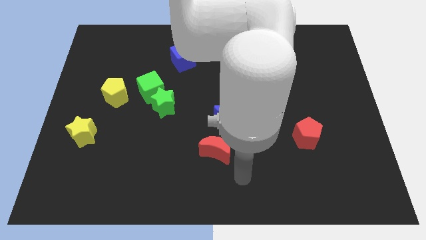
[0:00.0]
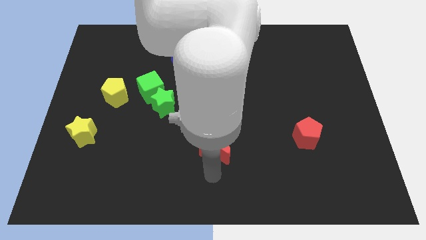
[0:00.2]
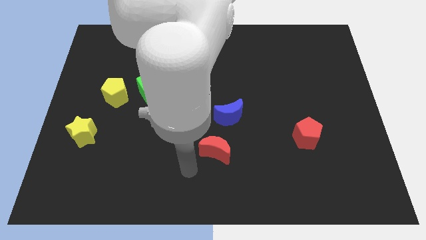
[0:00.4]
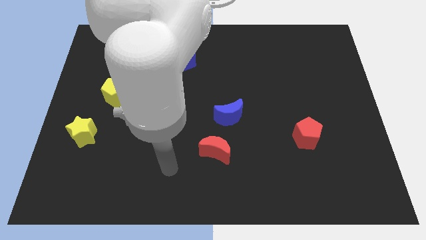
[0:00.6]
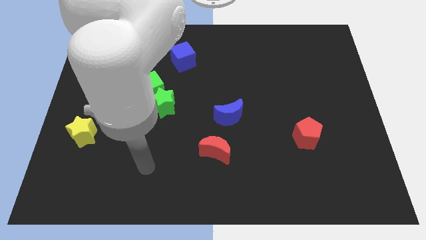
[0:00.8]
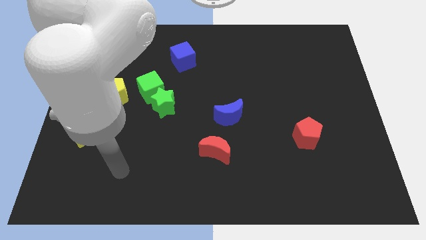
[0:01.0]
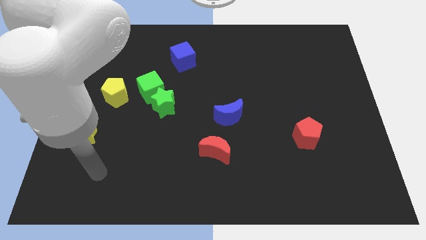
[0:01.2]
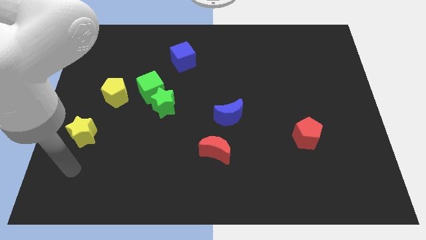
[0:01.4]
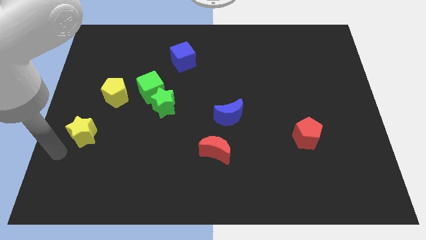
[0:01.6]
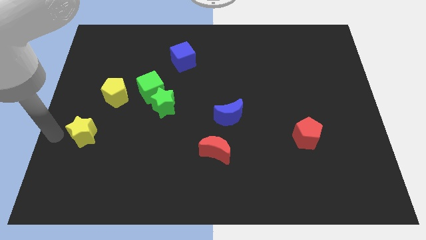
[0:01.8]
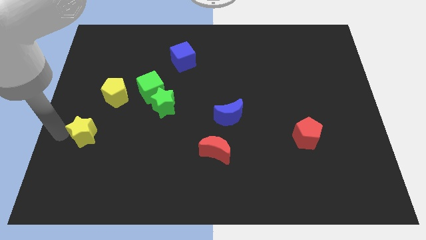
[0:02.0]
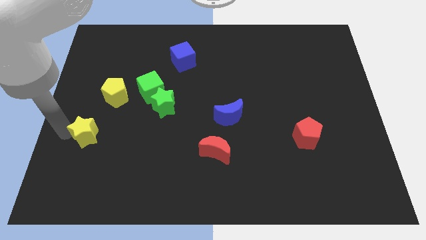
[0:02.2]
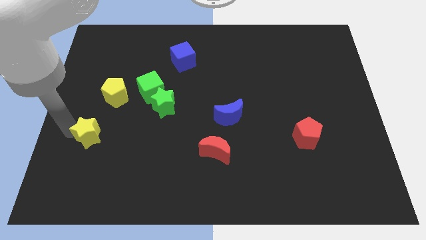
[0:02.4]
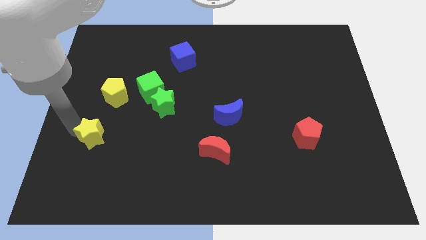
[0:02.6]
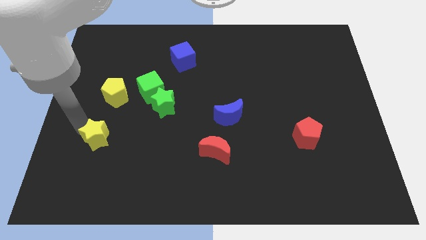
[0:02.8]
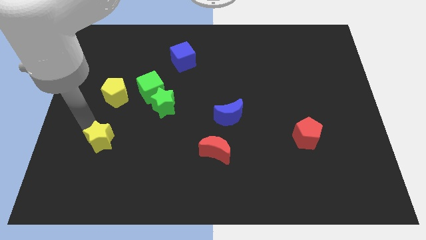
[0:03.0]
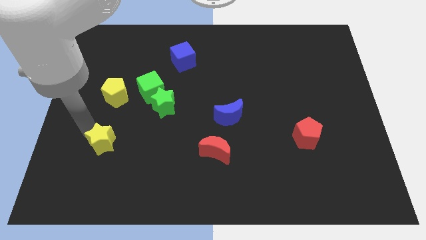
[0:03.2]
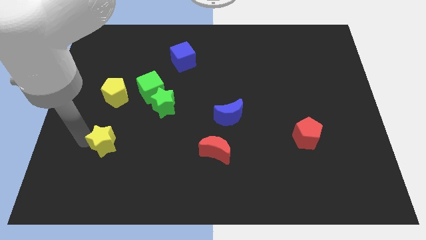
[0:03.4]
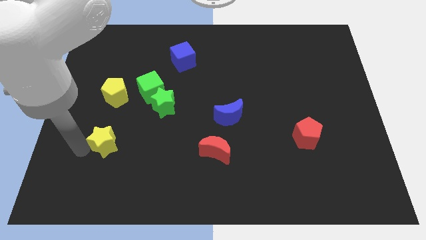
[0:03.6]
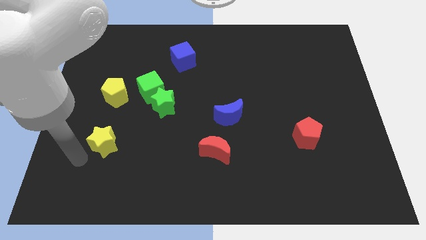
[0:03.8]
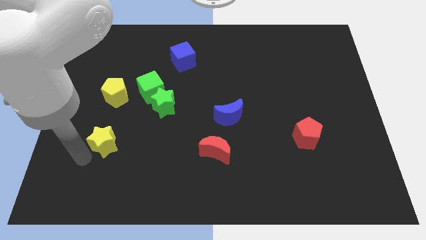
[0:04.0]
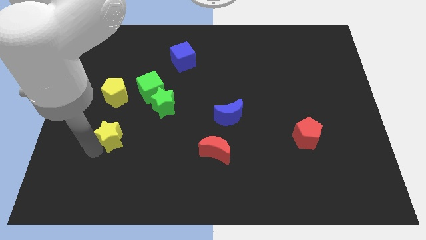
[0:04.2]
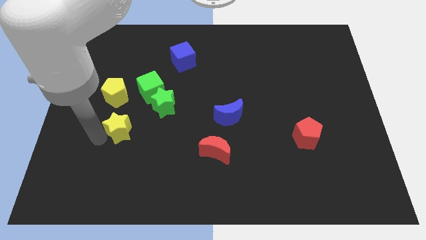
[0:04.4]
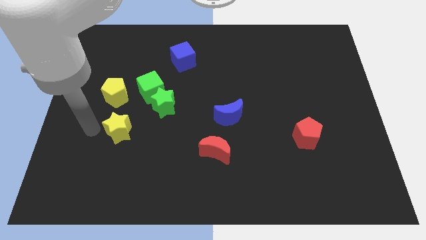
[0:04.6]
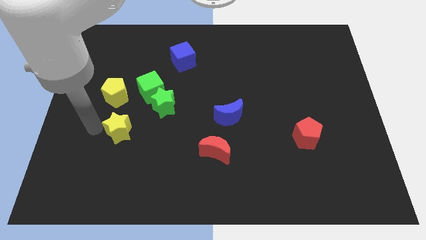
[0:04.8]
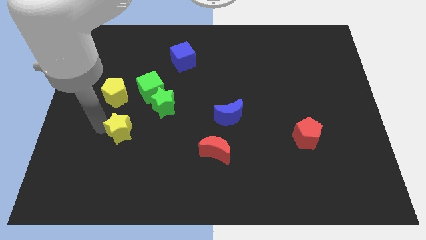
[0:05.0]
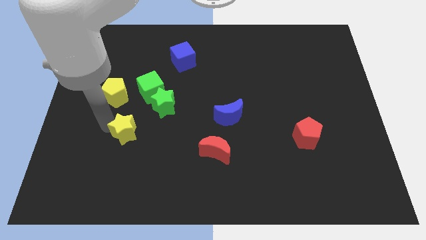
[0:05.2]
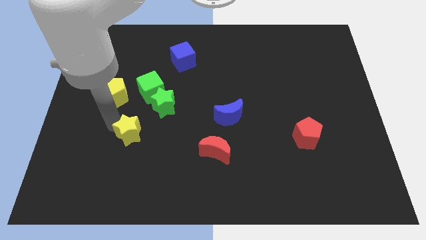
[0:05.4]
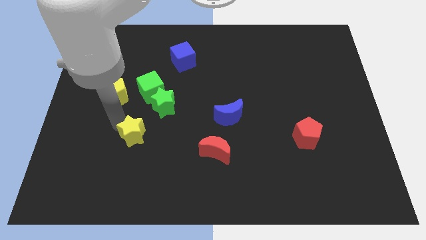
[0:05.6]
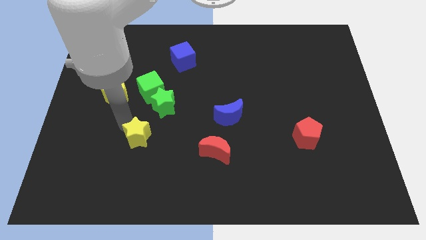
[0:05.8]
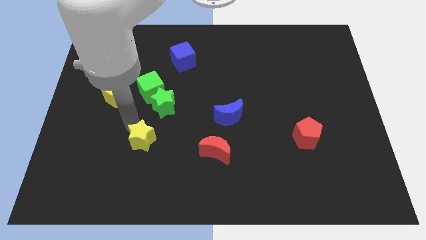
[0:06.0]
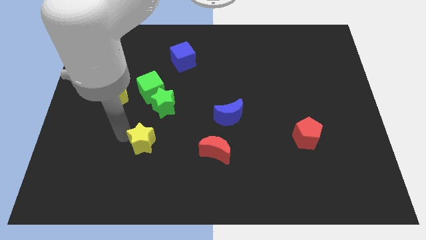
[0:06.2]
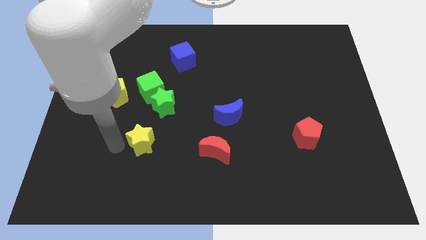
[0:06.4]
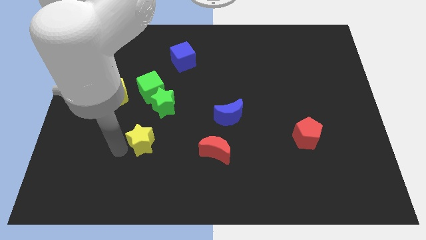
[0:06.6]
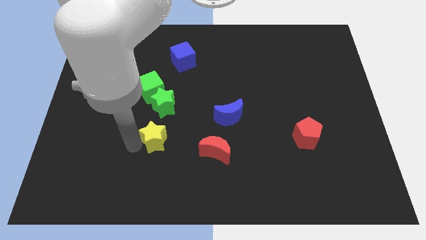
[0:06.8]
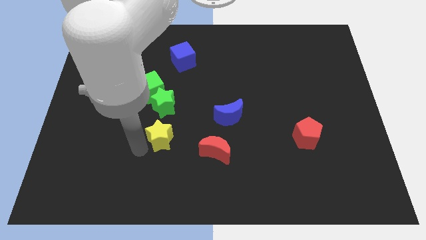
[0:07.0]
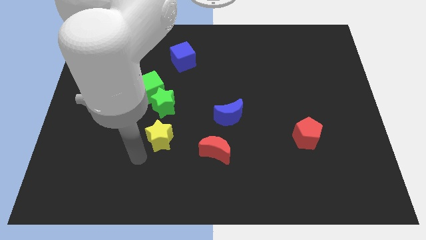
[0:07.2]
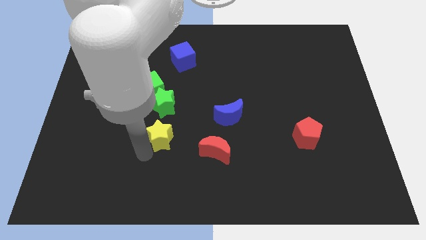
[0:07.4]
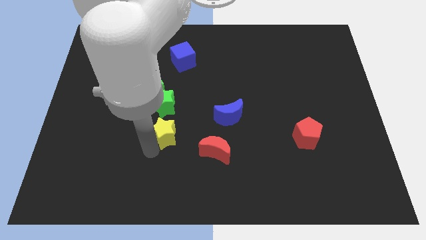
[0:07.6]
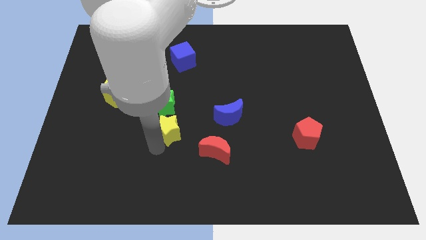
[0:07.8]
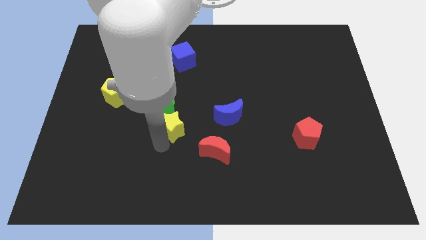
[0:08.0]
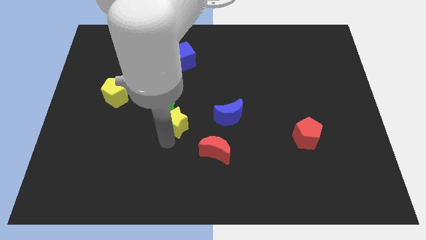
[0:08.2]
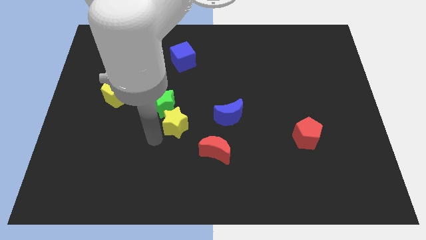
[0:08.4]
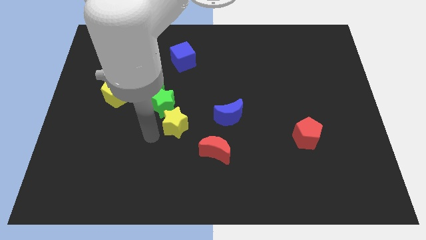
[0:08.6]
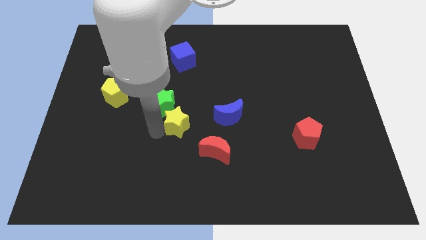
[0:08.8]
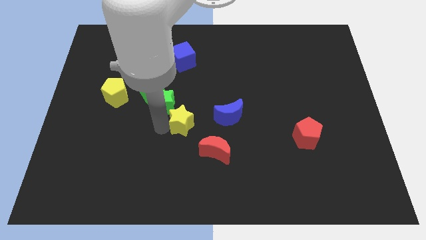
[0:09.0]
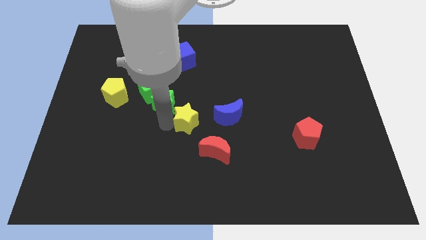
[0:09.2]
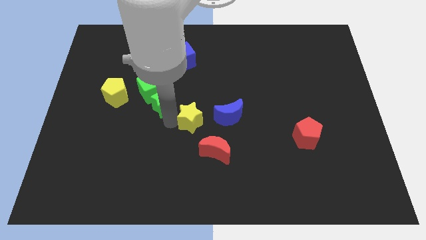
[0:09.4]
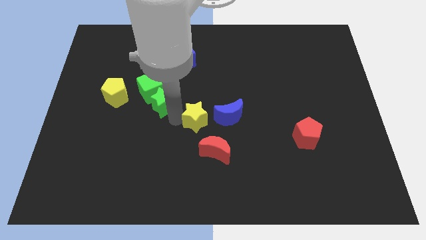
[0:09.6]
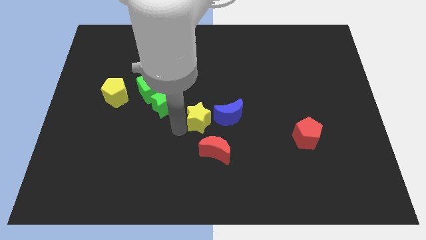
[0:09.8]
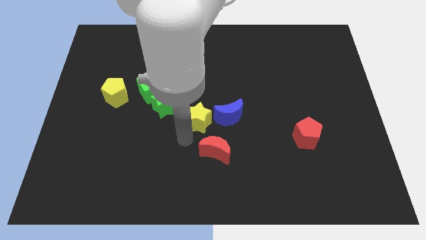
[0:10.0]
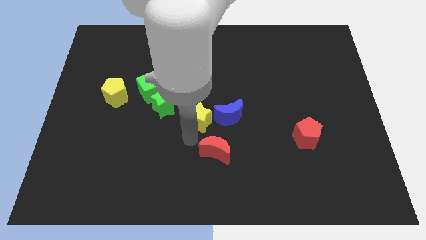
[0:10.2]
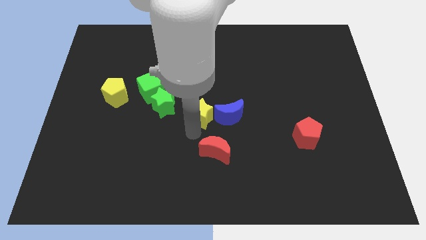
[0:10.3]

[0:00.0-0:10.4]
put the yellow star diagonally up and to the left of the blue moon

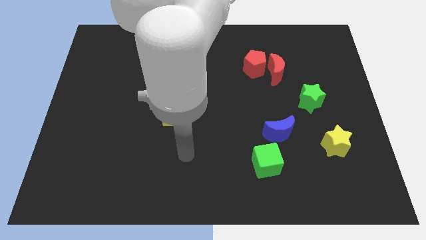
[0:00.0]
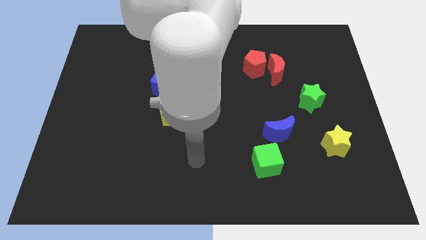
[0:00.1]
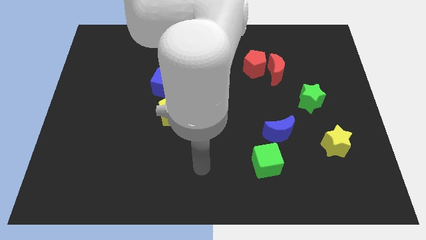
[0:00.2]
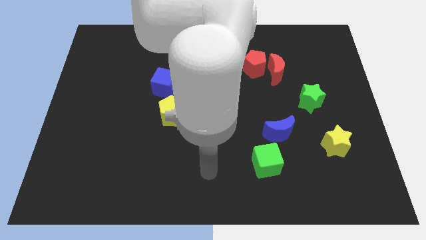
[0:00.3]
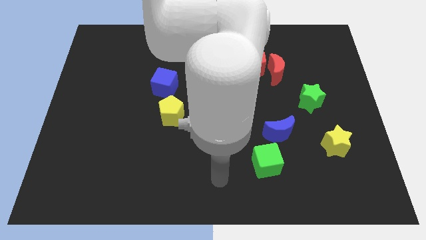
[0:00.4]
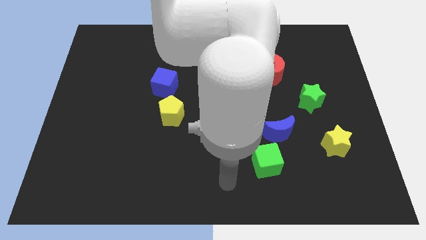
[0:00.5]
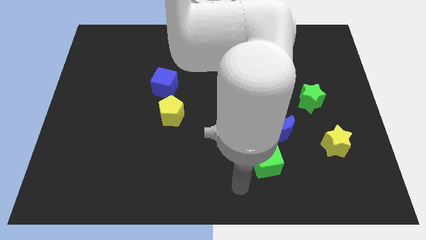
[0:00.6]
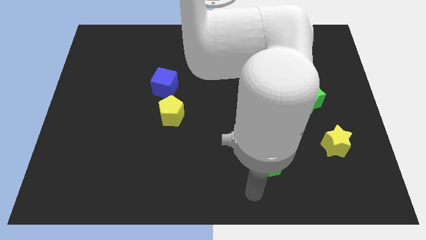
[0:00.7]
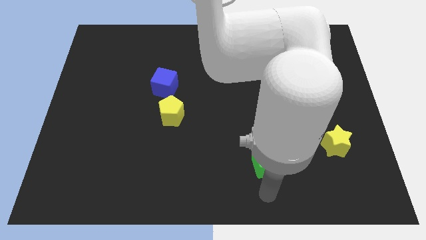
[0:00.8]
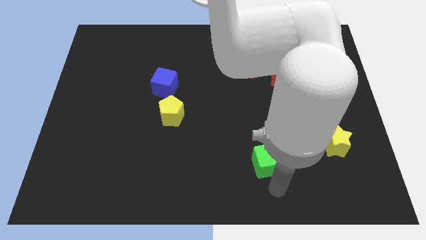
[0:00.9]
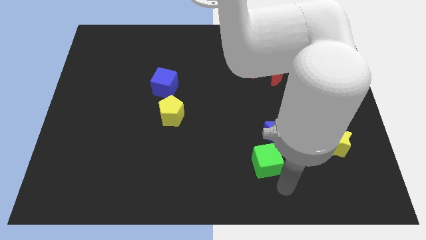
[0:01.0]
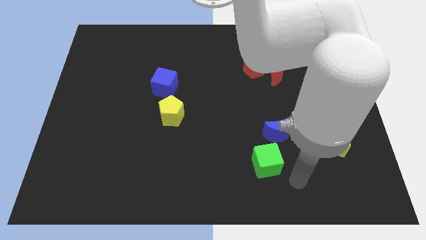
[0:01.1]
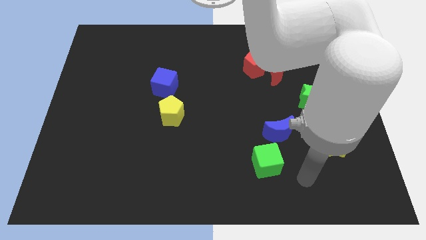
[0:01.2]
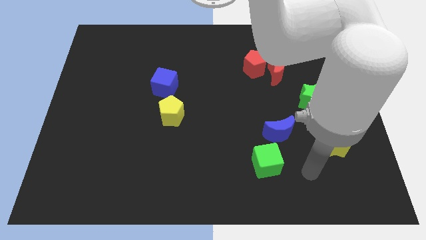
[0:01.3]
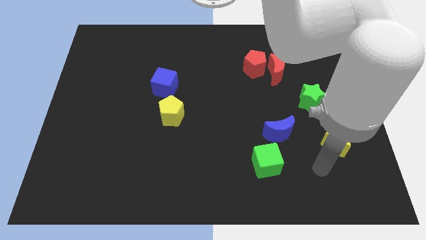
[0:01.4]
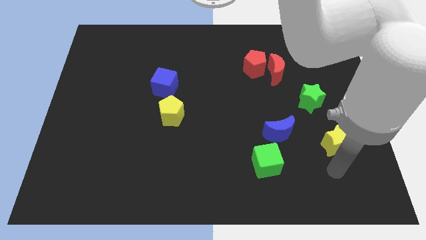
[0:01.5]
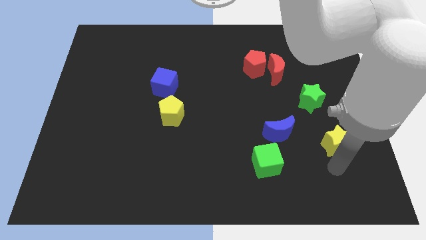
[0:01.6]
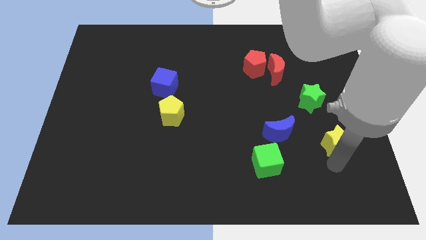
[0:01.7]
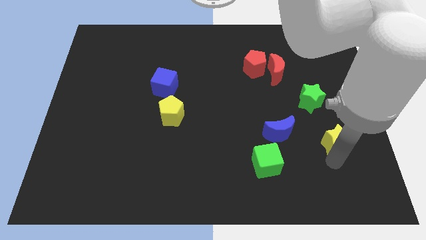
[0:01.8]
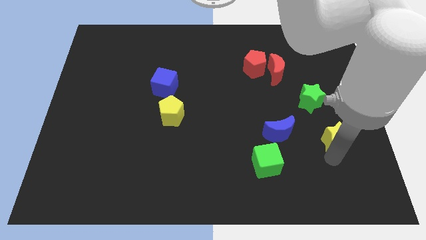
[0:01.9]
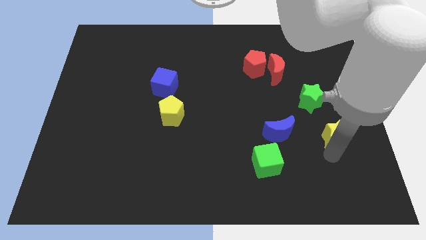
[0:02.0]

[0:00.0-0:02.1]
put the yellow star diagonally down and to the right of the green star
